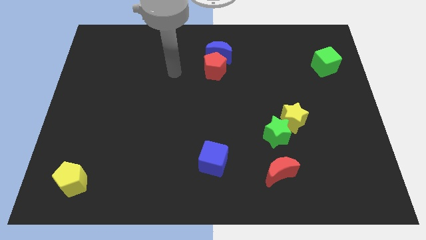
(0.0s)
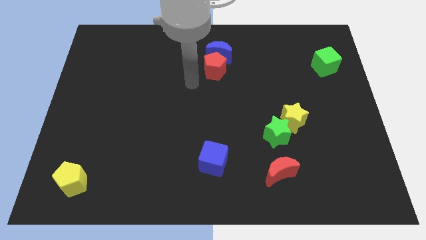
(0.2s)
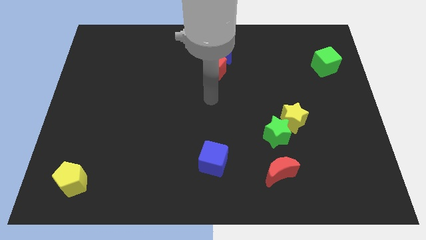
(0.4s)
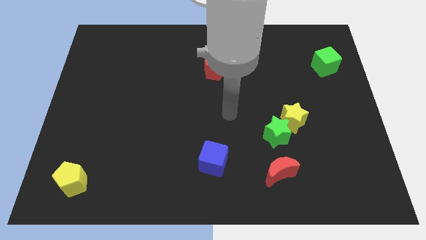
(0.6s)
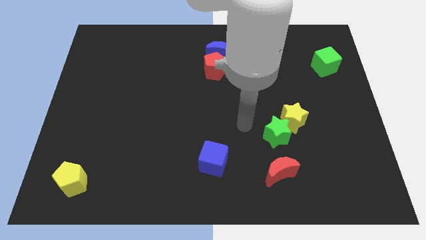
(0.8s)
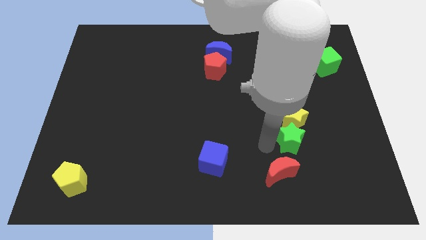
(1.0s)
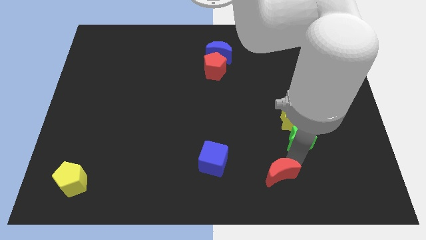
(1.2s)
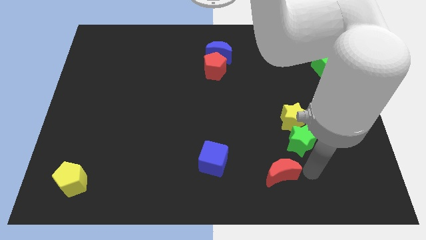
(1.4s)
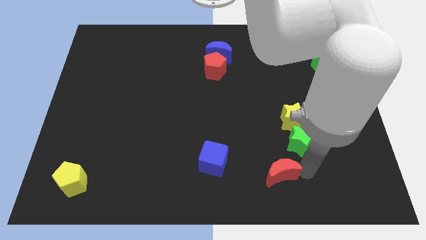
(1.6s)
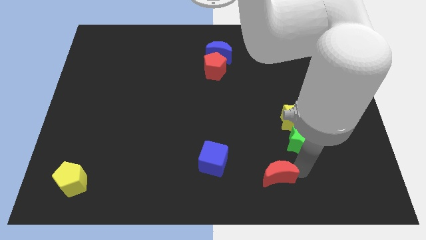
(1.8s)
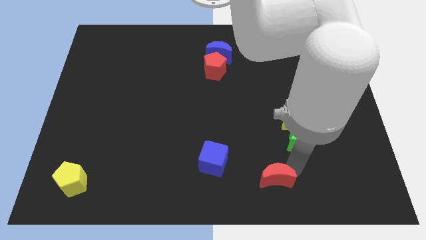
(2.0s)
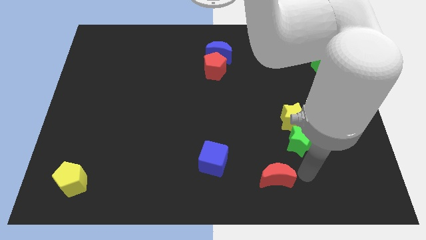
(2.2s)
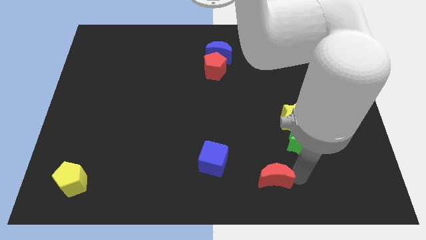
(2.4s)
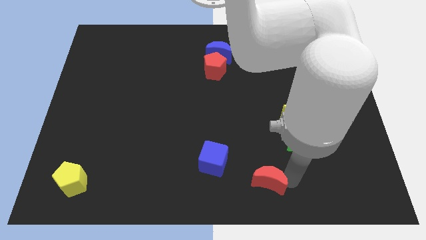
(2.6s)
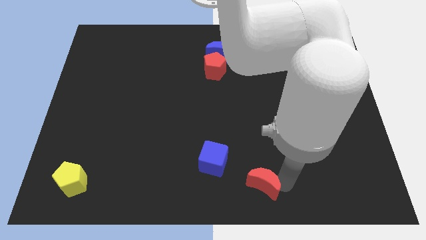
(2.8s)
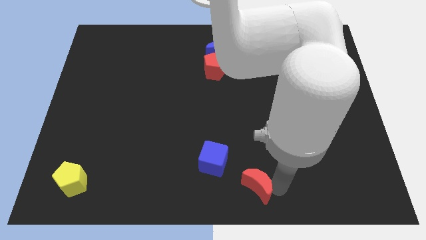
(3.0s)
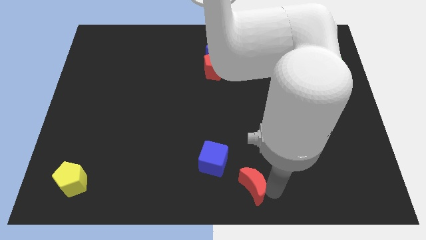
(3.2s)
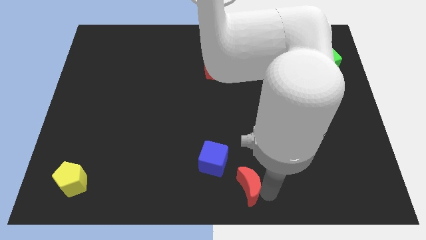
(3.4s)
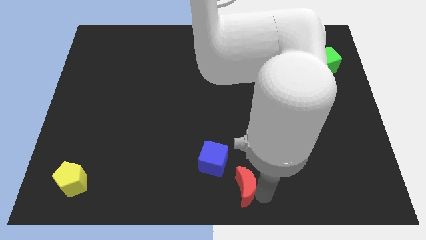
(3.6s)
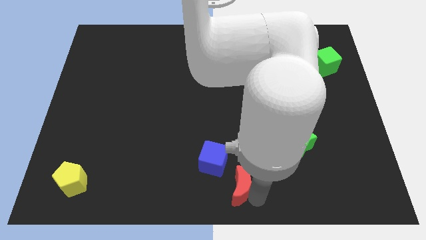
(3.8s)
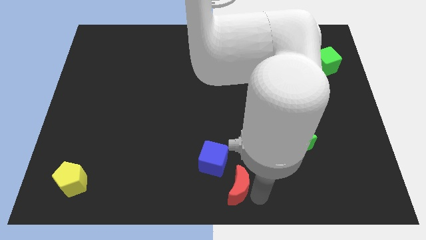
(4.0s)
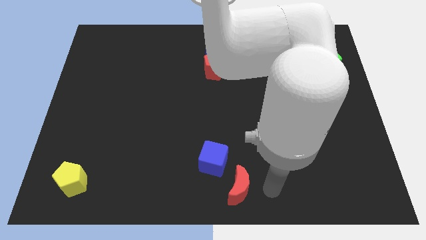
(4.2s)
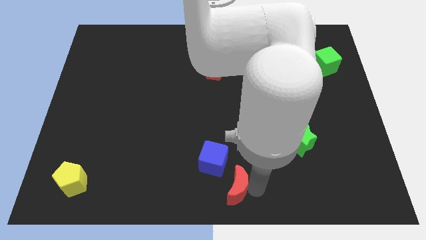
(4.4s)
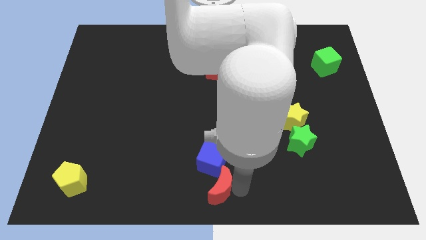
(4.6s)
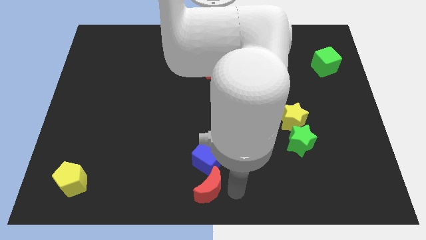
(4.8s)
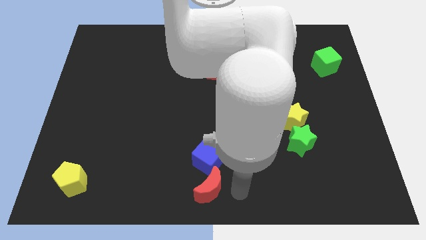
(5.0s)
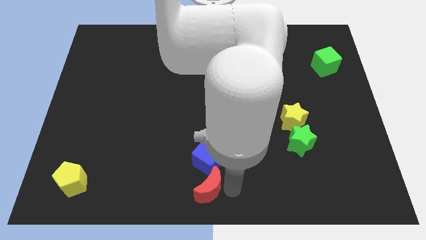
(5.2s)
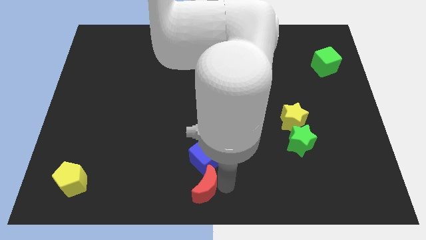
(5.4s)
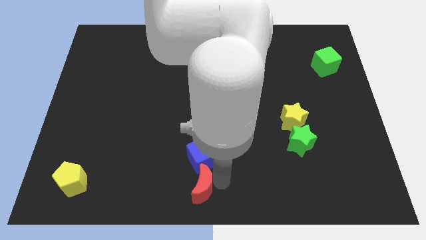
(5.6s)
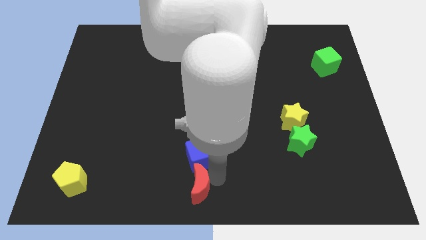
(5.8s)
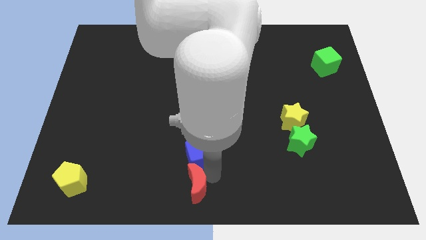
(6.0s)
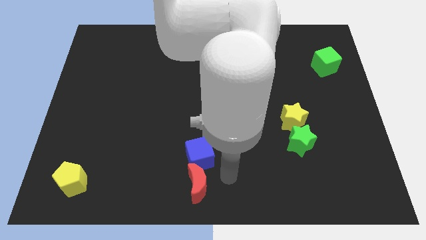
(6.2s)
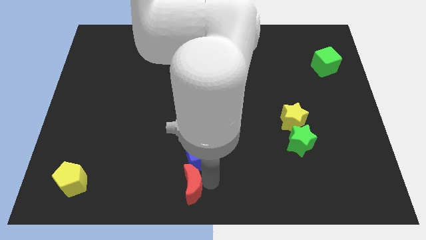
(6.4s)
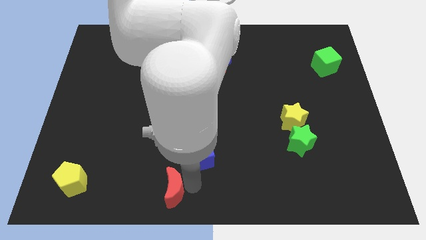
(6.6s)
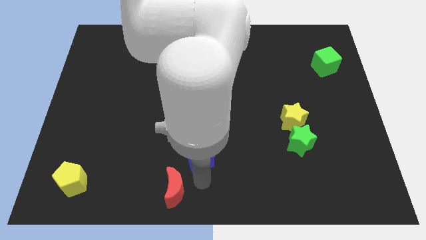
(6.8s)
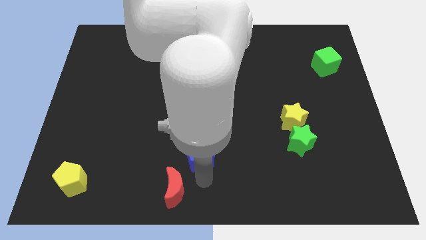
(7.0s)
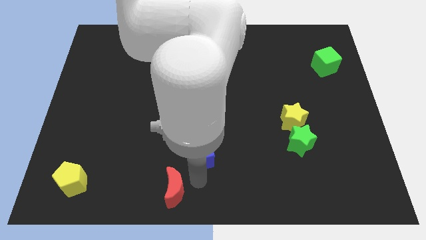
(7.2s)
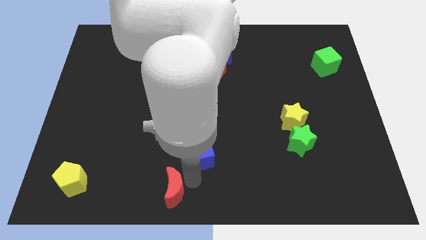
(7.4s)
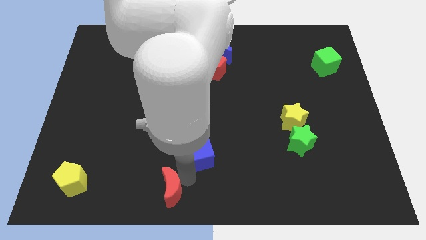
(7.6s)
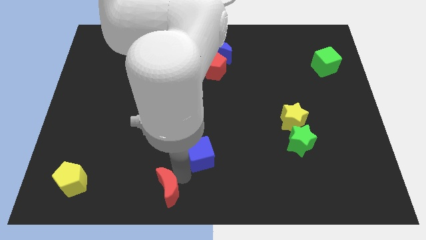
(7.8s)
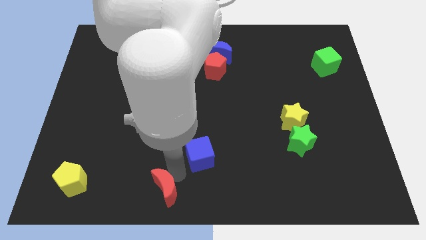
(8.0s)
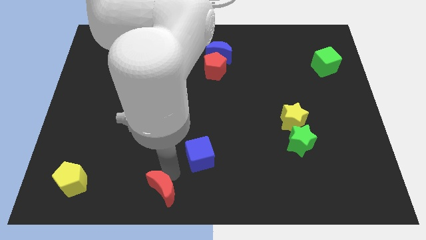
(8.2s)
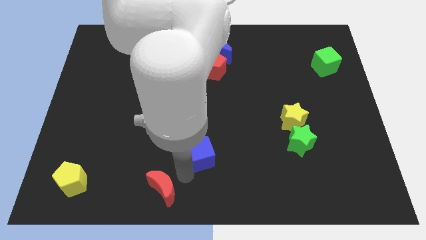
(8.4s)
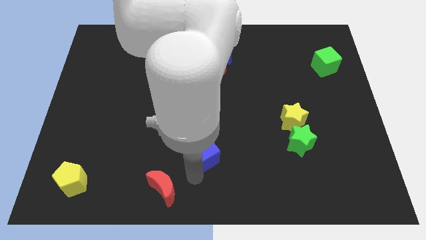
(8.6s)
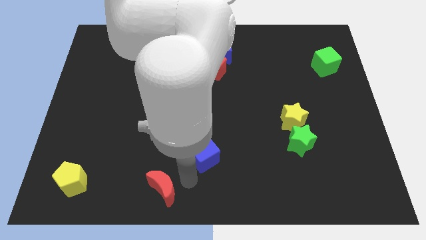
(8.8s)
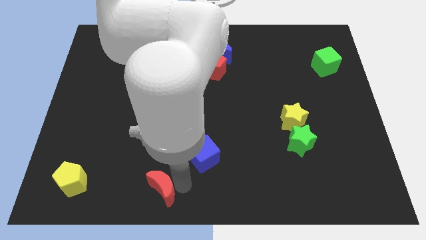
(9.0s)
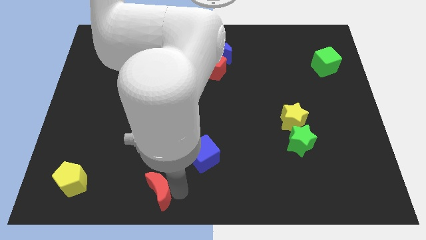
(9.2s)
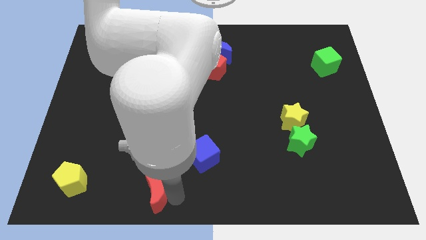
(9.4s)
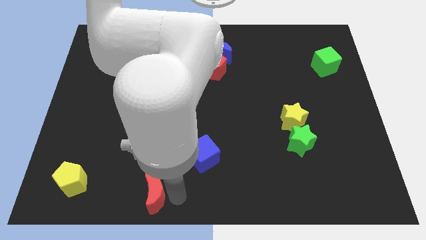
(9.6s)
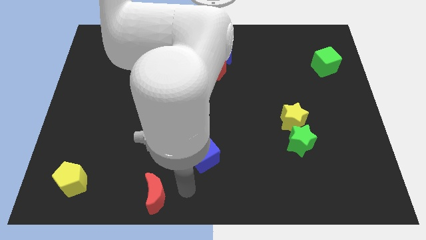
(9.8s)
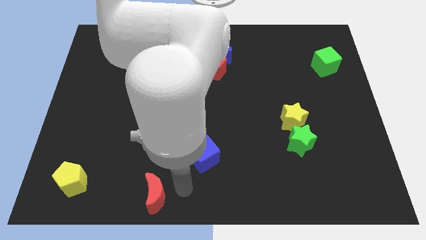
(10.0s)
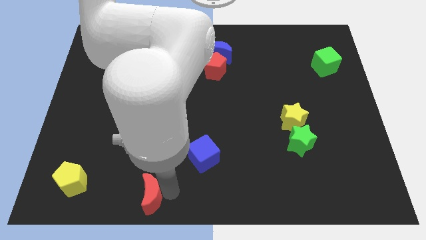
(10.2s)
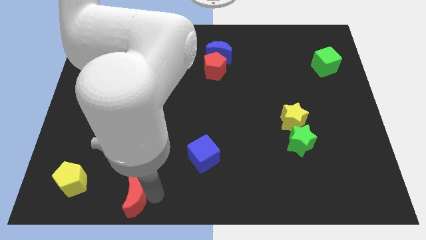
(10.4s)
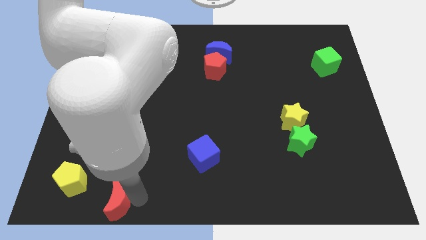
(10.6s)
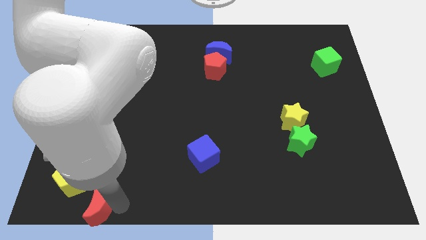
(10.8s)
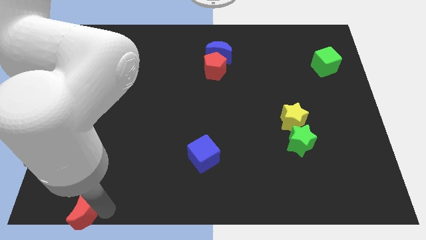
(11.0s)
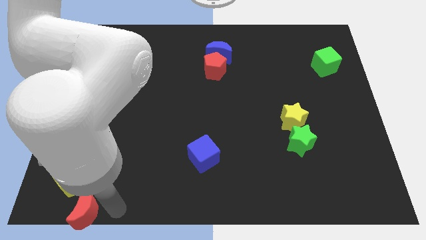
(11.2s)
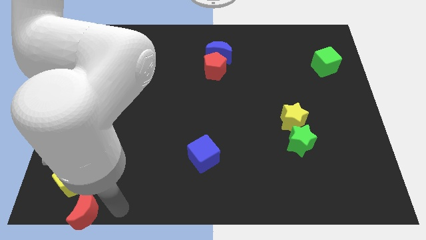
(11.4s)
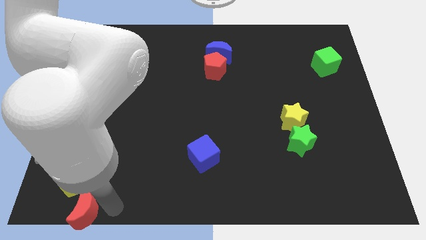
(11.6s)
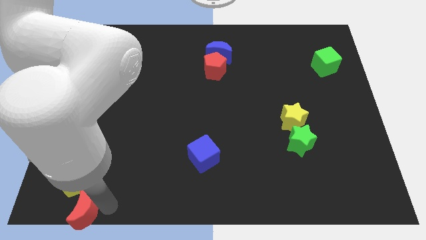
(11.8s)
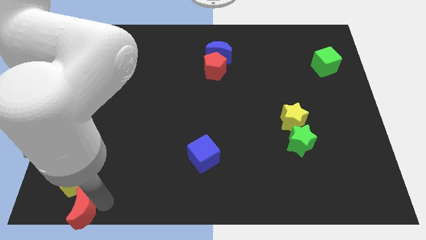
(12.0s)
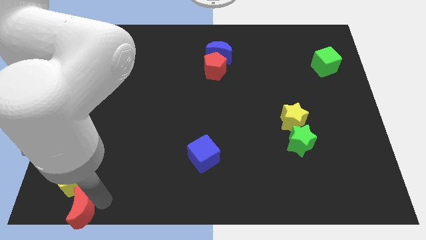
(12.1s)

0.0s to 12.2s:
move the red moon to the bottom left

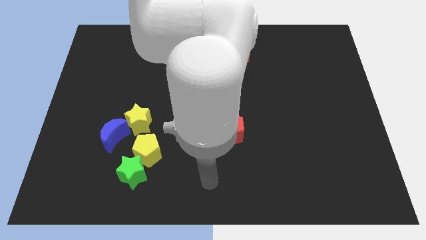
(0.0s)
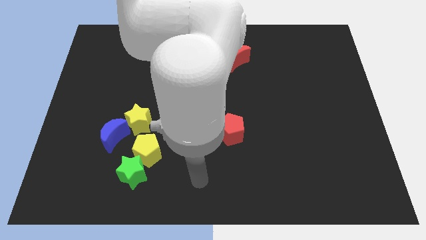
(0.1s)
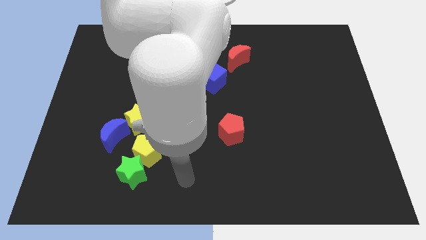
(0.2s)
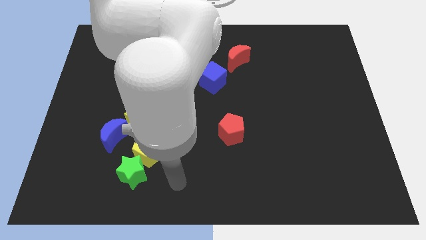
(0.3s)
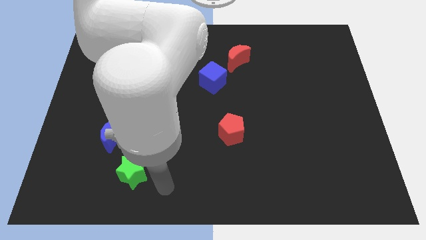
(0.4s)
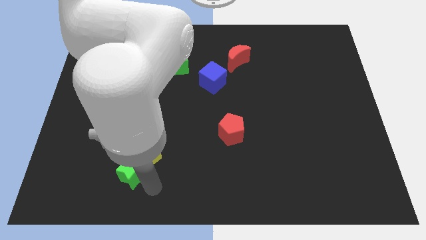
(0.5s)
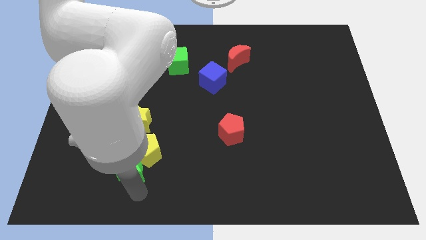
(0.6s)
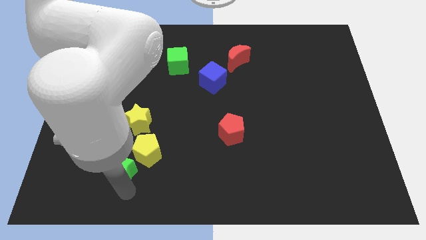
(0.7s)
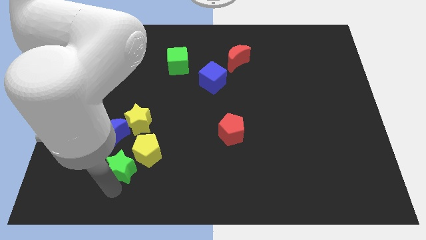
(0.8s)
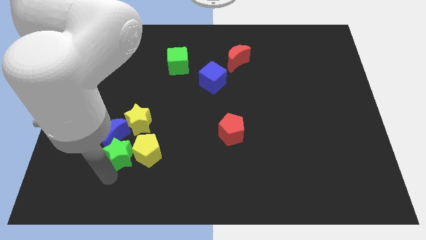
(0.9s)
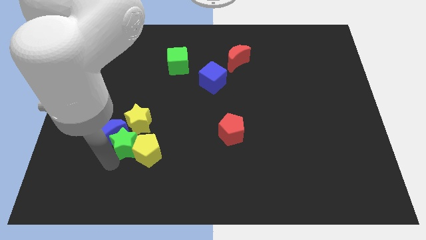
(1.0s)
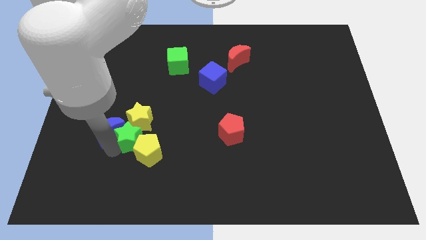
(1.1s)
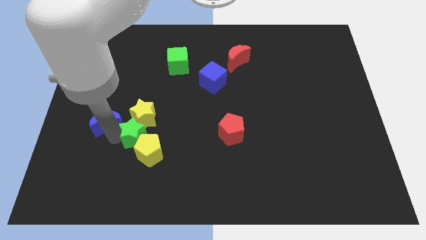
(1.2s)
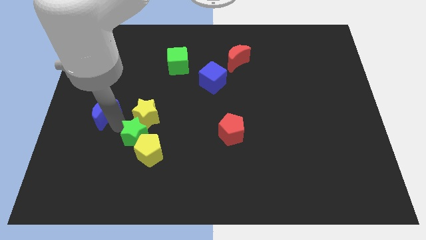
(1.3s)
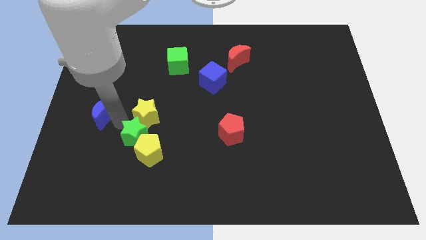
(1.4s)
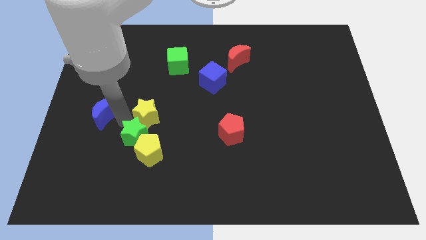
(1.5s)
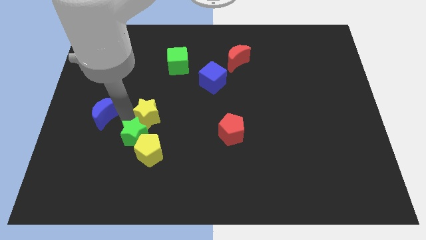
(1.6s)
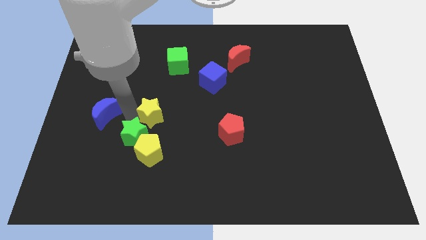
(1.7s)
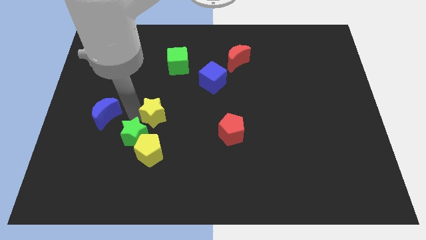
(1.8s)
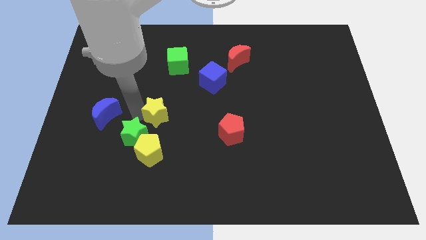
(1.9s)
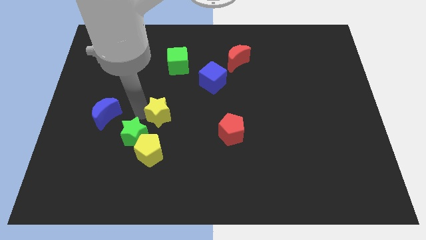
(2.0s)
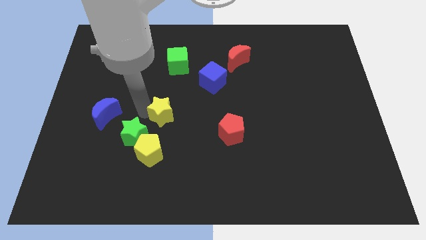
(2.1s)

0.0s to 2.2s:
move the yellow star to the middle
